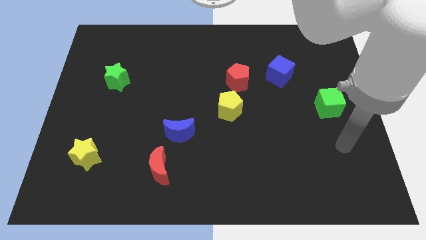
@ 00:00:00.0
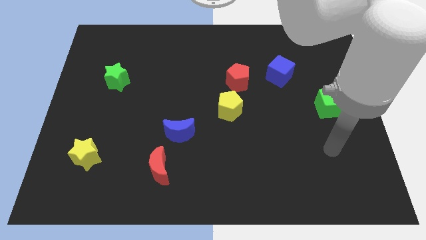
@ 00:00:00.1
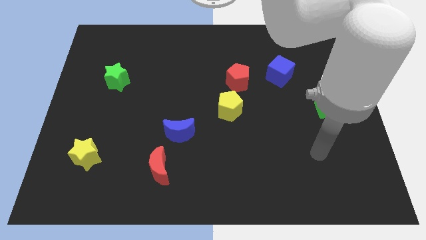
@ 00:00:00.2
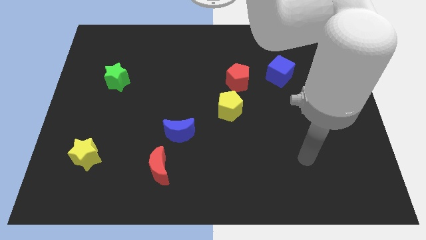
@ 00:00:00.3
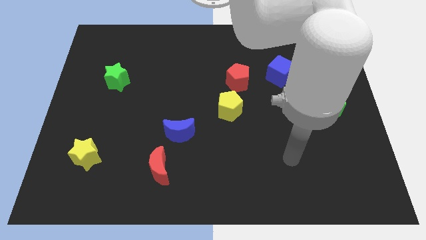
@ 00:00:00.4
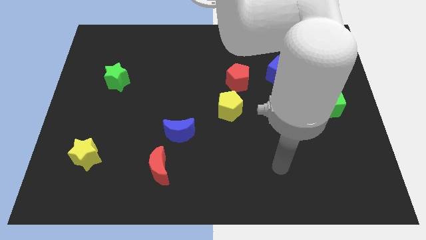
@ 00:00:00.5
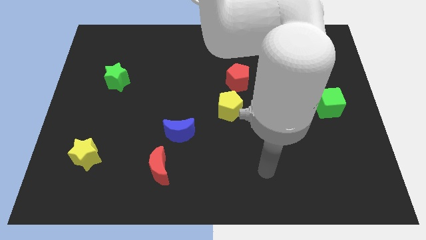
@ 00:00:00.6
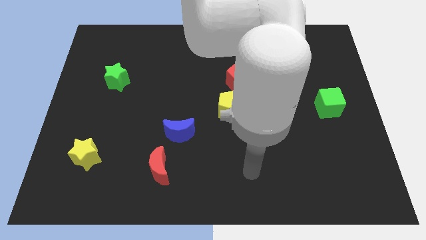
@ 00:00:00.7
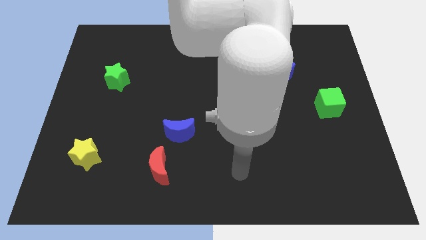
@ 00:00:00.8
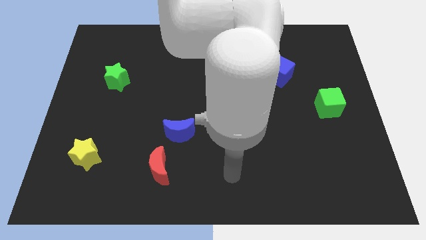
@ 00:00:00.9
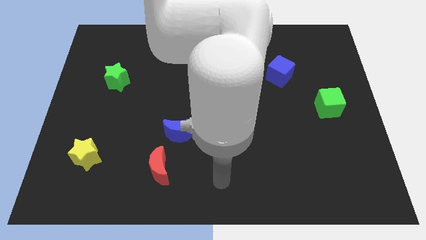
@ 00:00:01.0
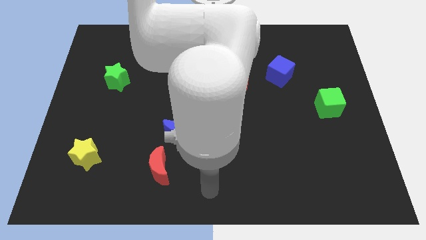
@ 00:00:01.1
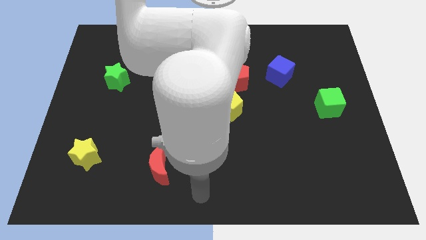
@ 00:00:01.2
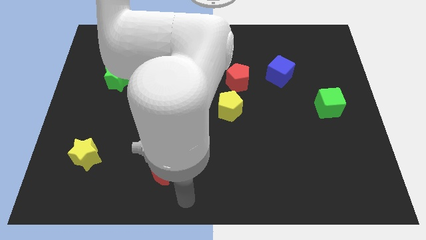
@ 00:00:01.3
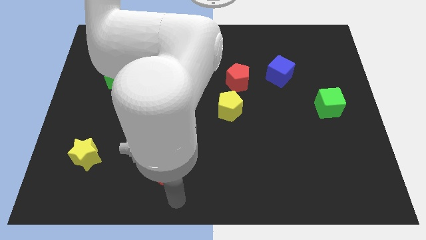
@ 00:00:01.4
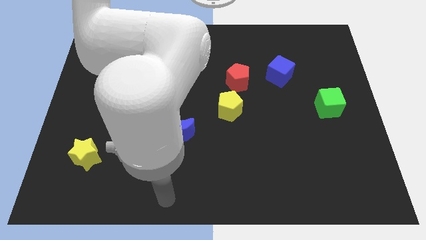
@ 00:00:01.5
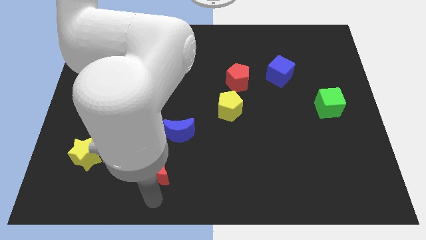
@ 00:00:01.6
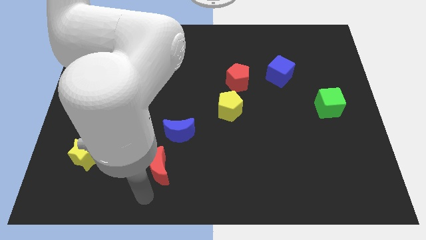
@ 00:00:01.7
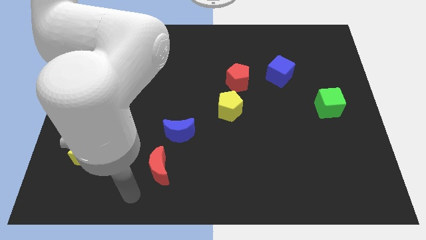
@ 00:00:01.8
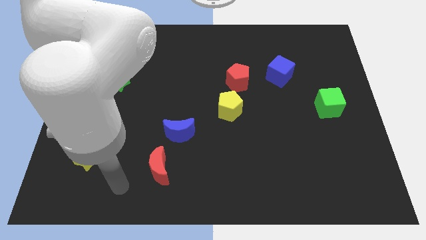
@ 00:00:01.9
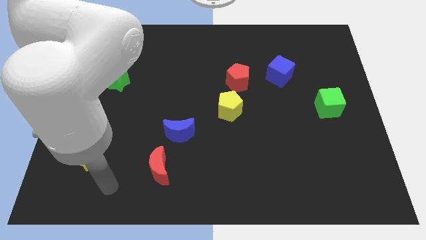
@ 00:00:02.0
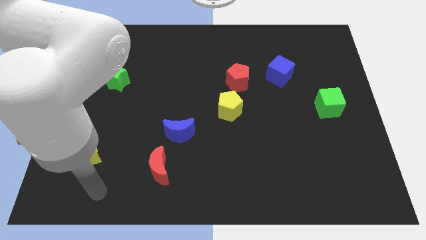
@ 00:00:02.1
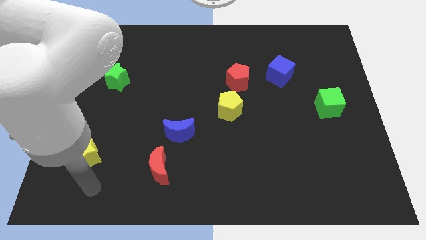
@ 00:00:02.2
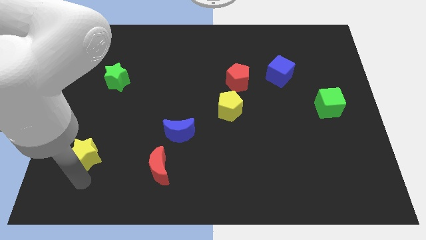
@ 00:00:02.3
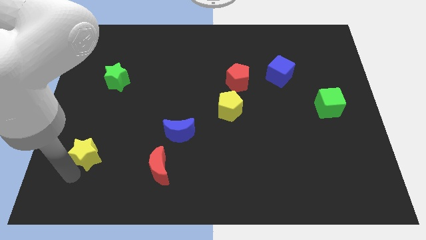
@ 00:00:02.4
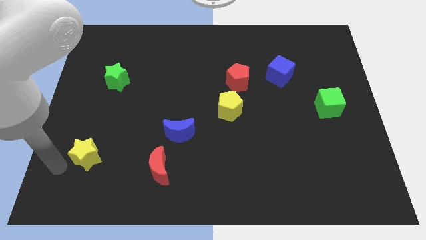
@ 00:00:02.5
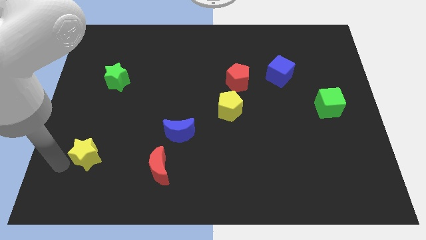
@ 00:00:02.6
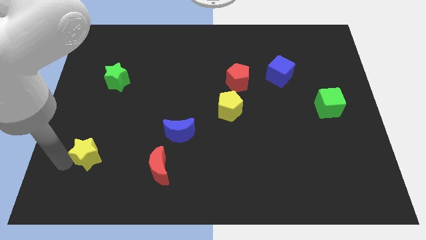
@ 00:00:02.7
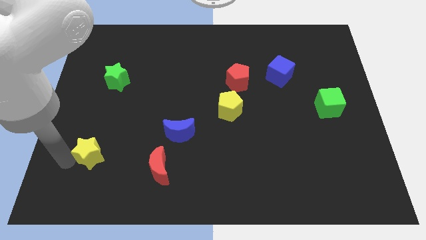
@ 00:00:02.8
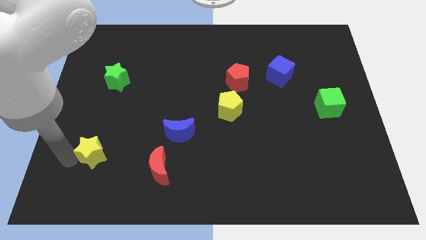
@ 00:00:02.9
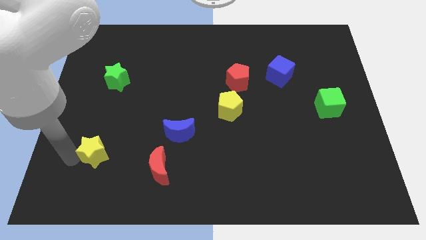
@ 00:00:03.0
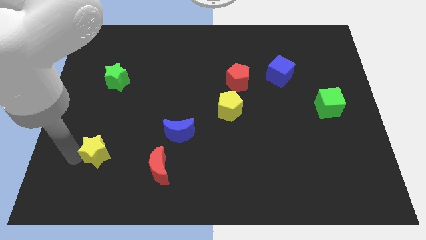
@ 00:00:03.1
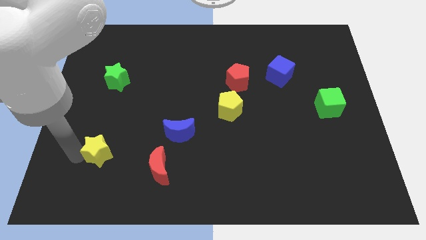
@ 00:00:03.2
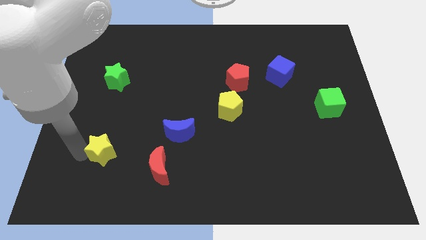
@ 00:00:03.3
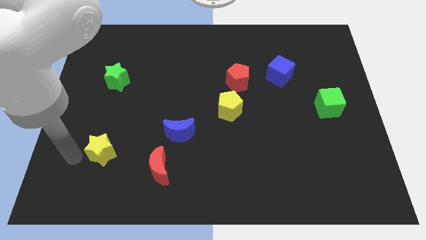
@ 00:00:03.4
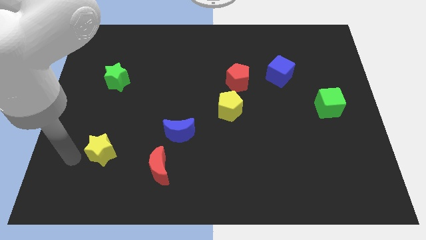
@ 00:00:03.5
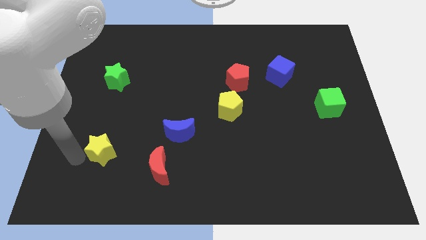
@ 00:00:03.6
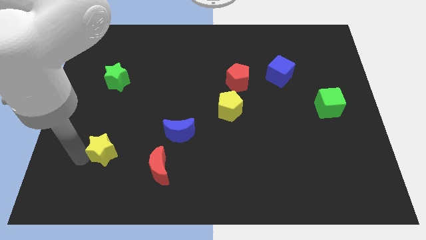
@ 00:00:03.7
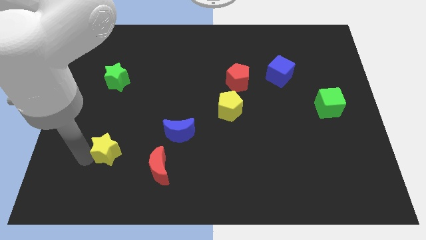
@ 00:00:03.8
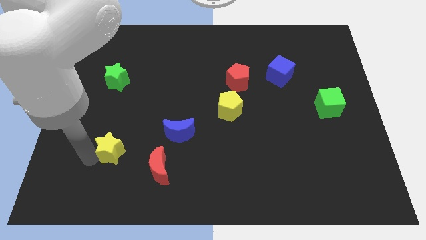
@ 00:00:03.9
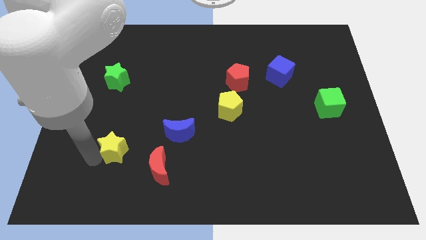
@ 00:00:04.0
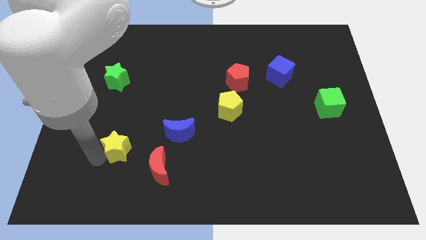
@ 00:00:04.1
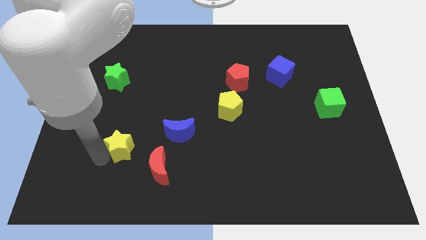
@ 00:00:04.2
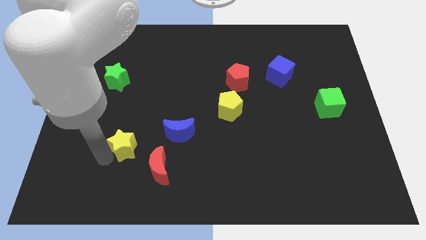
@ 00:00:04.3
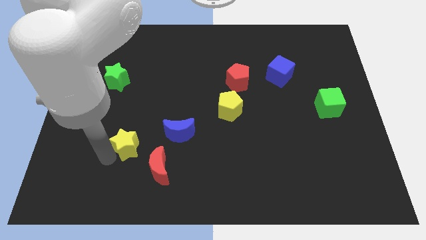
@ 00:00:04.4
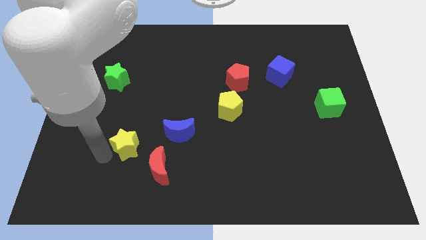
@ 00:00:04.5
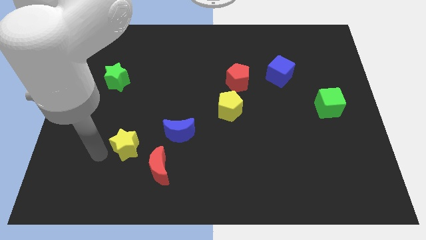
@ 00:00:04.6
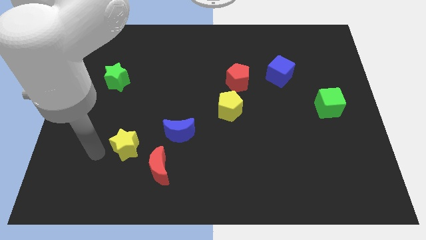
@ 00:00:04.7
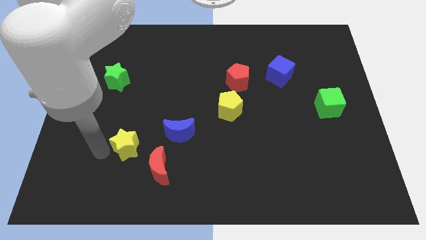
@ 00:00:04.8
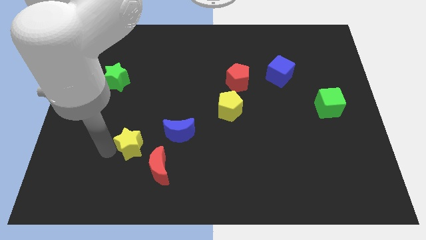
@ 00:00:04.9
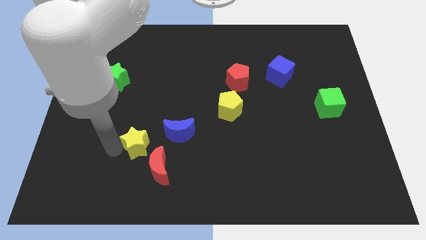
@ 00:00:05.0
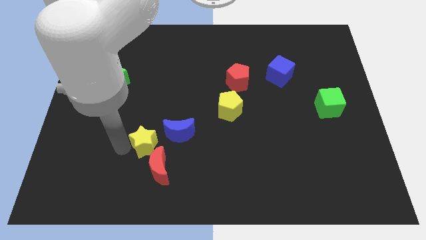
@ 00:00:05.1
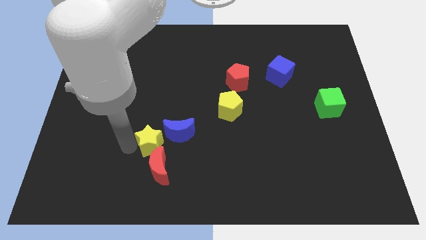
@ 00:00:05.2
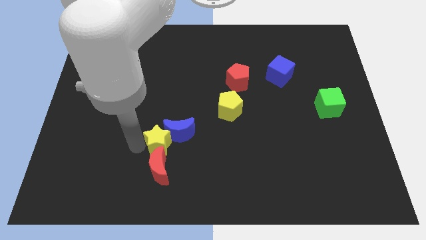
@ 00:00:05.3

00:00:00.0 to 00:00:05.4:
move the yellow star to the blue moon

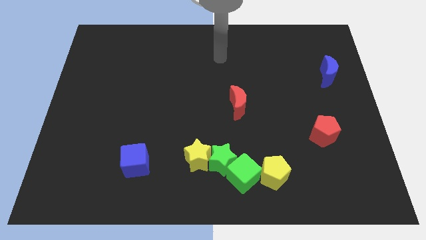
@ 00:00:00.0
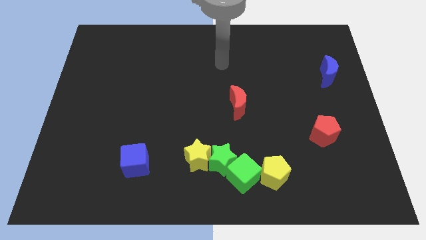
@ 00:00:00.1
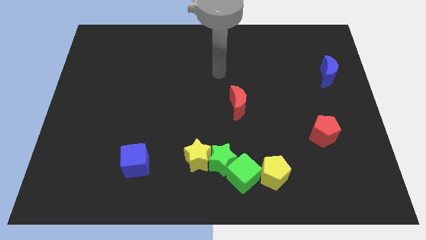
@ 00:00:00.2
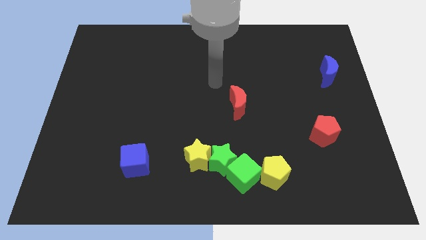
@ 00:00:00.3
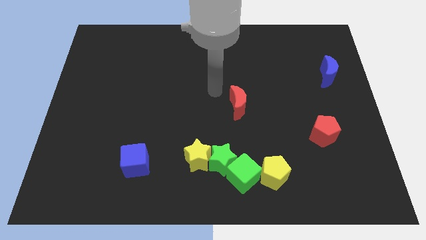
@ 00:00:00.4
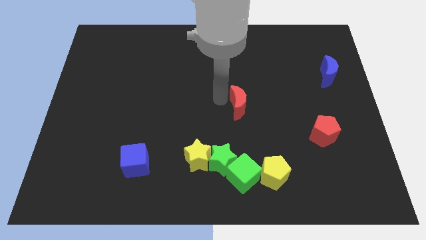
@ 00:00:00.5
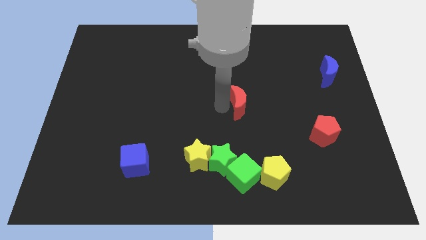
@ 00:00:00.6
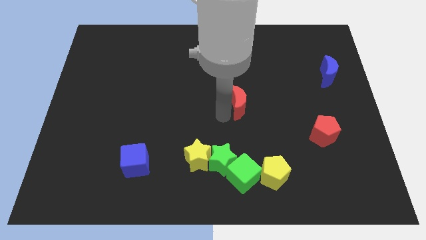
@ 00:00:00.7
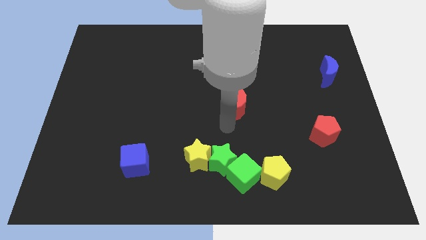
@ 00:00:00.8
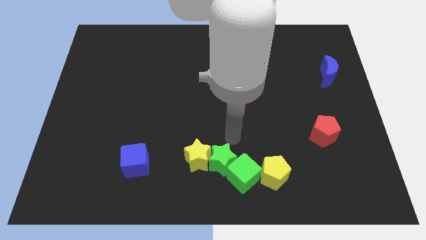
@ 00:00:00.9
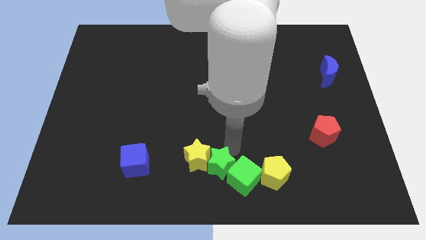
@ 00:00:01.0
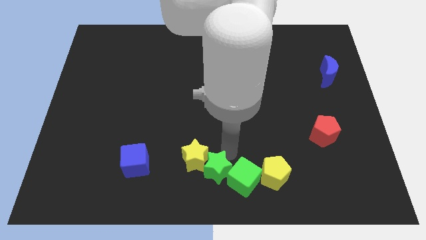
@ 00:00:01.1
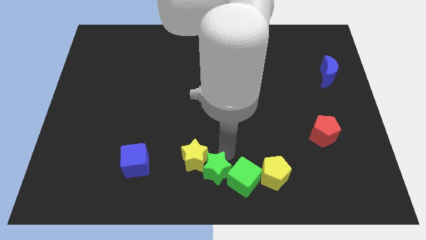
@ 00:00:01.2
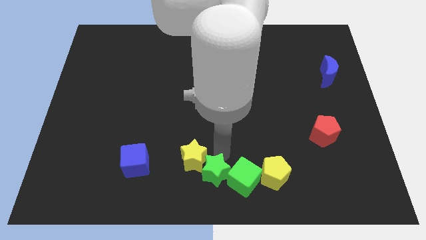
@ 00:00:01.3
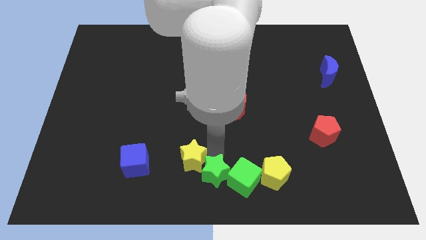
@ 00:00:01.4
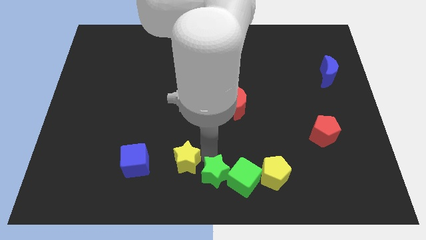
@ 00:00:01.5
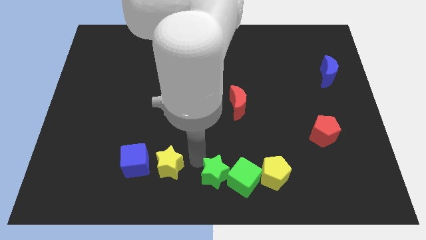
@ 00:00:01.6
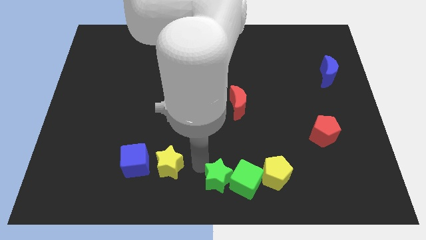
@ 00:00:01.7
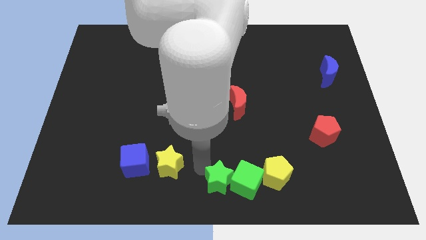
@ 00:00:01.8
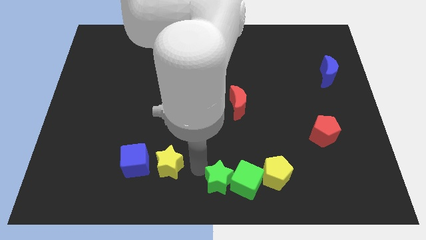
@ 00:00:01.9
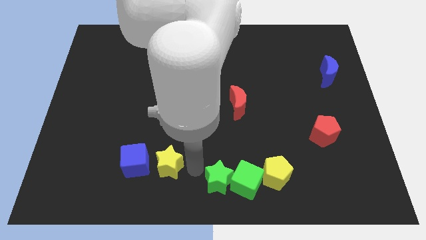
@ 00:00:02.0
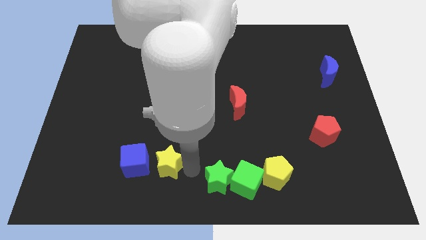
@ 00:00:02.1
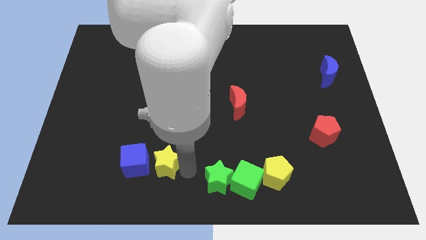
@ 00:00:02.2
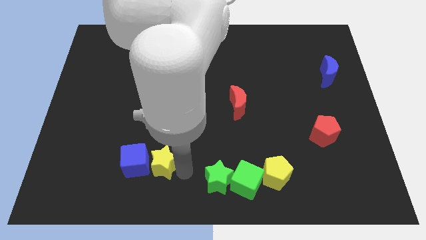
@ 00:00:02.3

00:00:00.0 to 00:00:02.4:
slide the yellow star close to the blue cube
